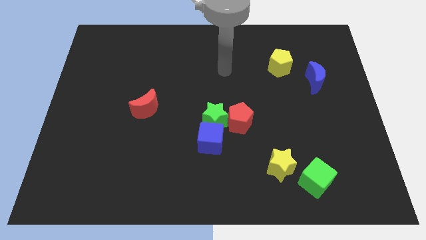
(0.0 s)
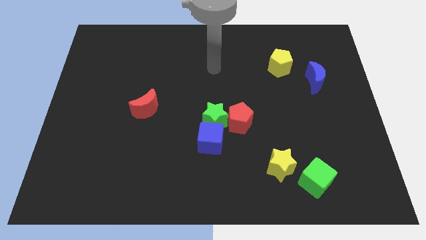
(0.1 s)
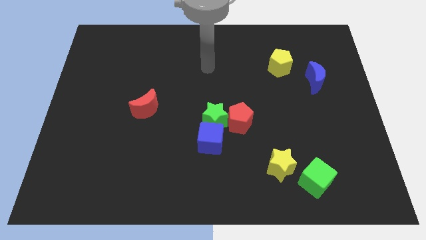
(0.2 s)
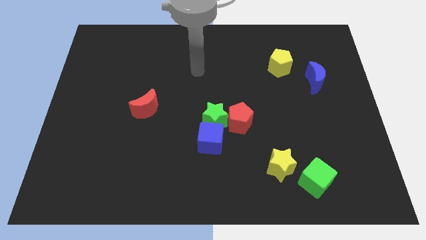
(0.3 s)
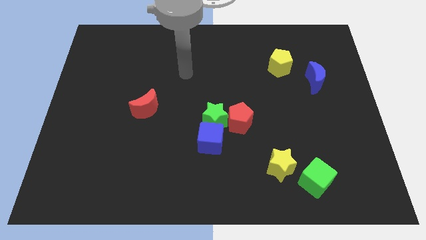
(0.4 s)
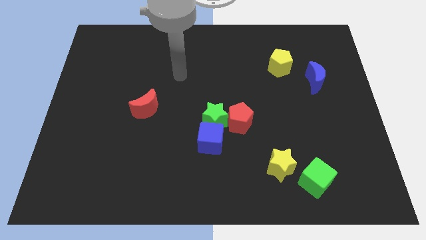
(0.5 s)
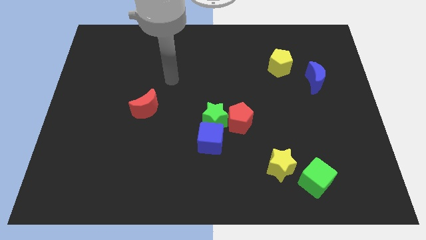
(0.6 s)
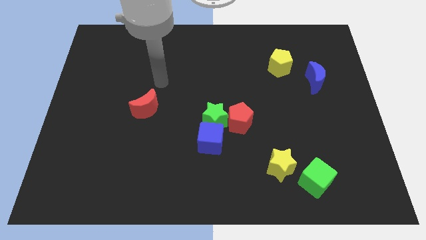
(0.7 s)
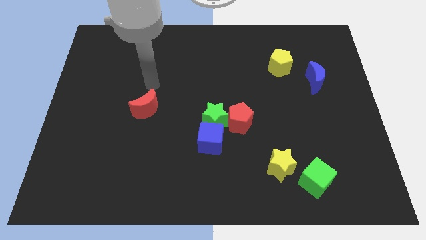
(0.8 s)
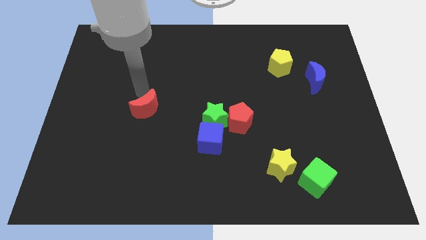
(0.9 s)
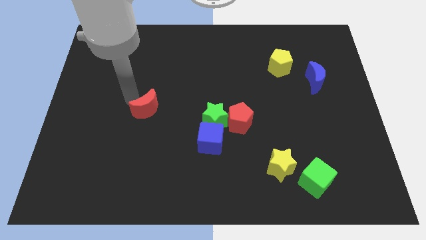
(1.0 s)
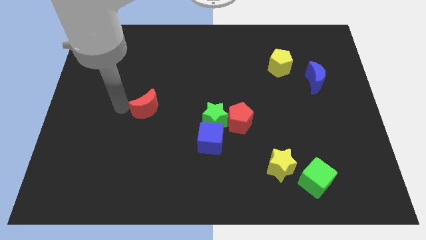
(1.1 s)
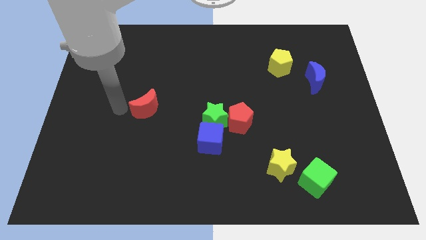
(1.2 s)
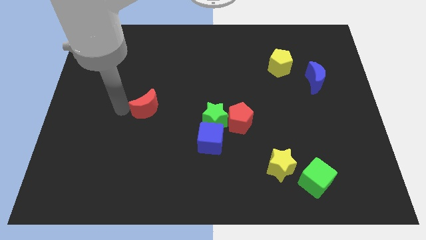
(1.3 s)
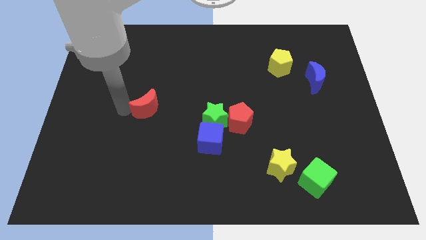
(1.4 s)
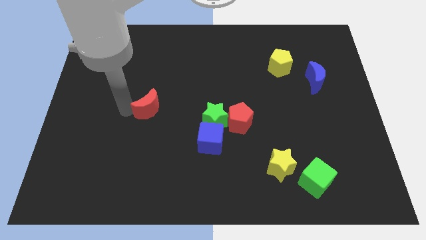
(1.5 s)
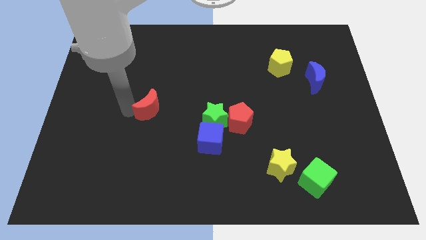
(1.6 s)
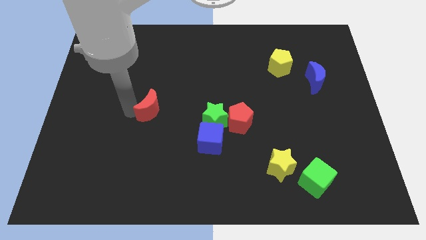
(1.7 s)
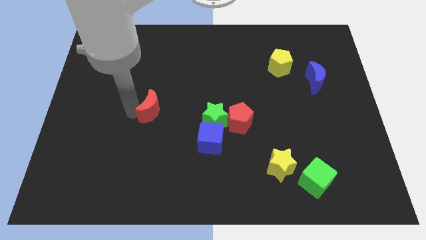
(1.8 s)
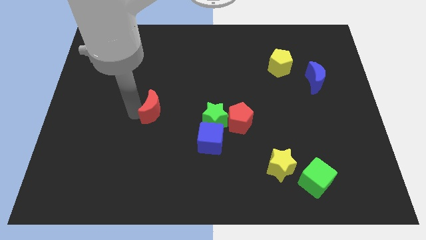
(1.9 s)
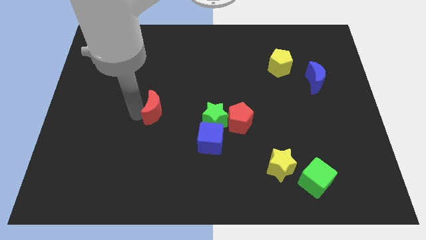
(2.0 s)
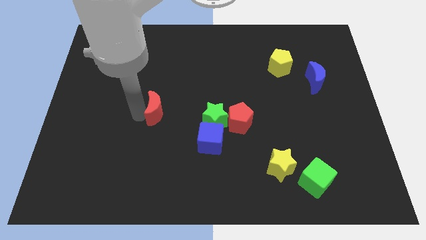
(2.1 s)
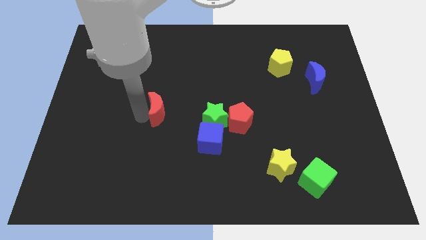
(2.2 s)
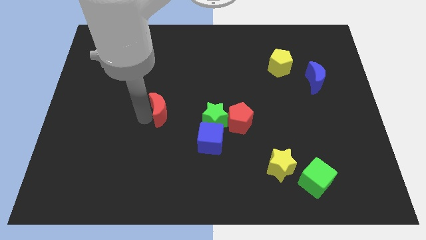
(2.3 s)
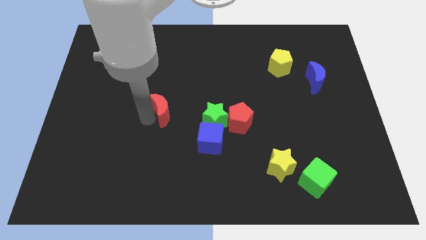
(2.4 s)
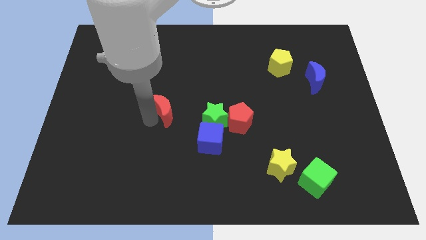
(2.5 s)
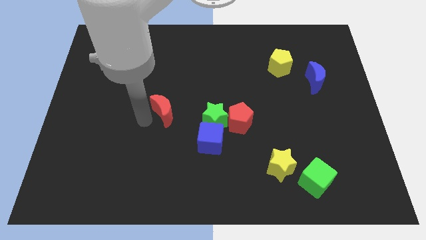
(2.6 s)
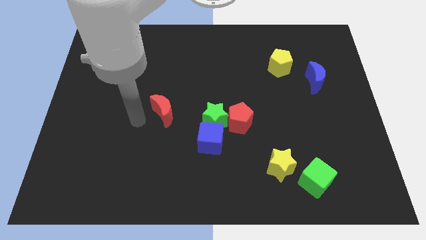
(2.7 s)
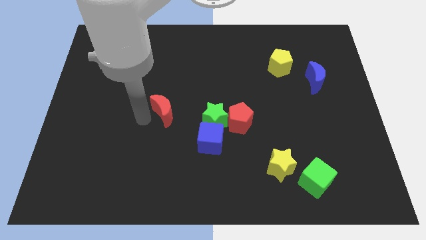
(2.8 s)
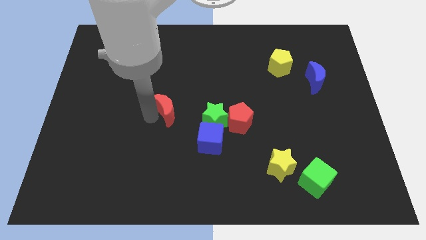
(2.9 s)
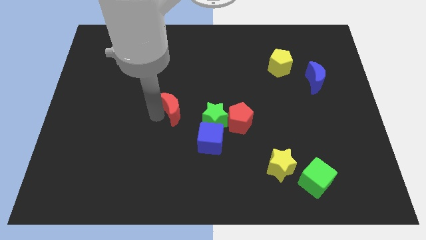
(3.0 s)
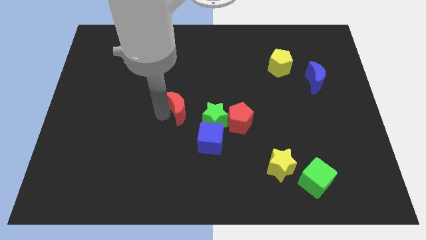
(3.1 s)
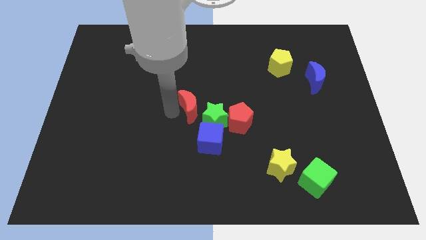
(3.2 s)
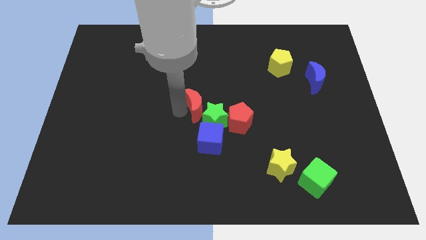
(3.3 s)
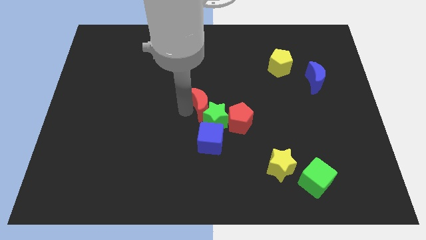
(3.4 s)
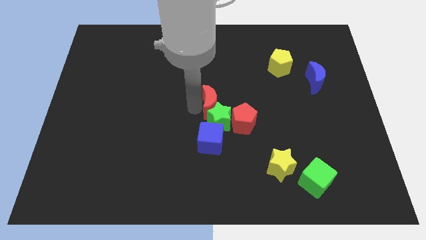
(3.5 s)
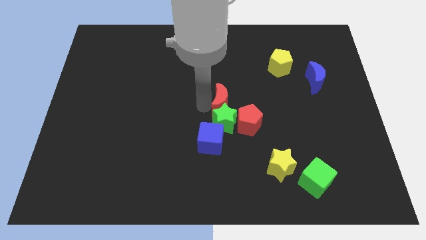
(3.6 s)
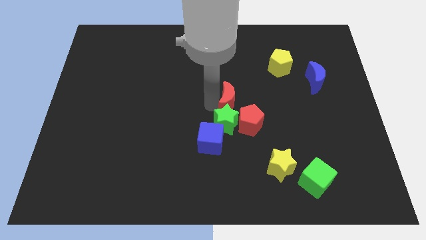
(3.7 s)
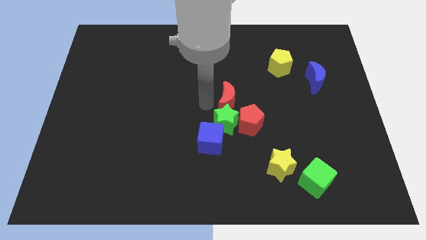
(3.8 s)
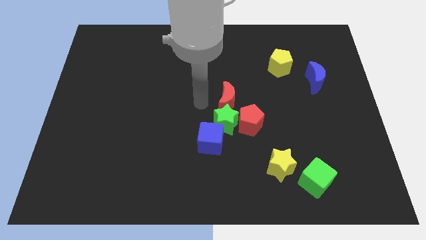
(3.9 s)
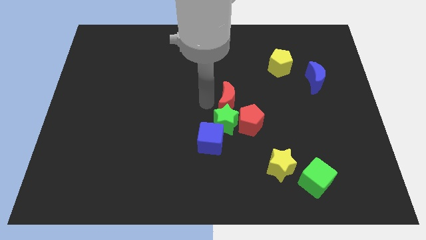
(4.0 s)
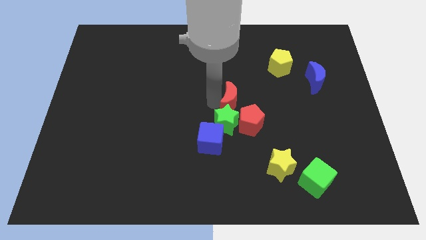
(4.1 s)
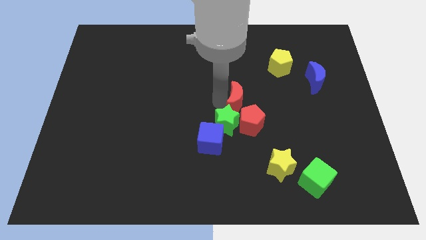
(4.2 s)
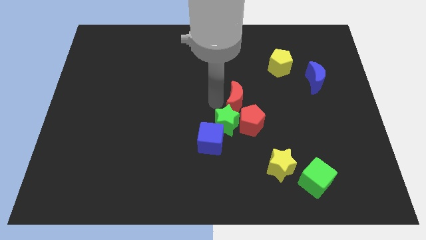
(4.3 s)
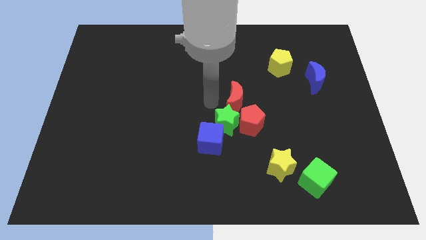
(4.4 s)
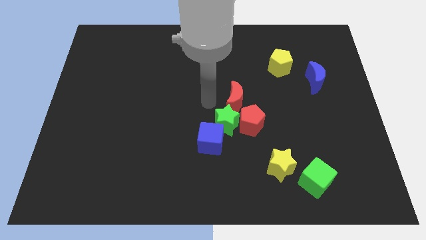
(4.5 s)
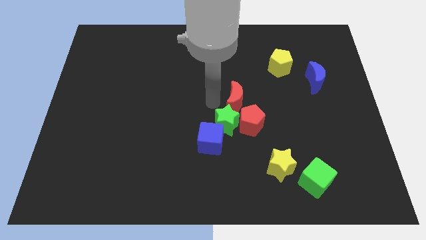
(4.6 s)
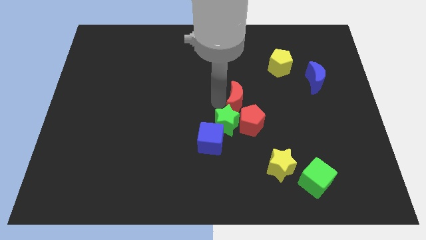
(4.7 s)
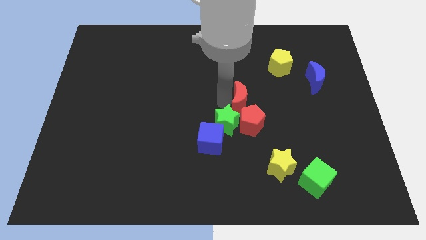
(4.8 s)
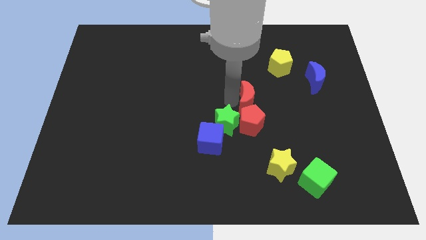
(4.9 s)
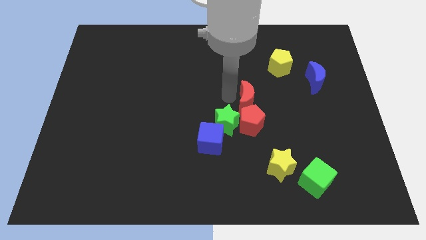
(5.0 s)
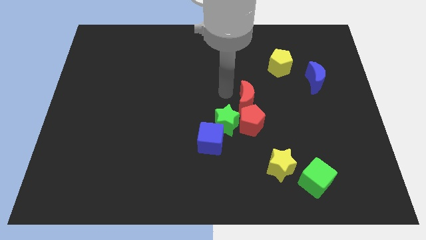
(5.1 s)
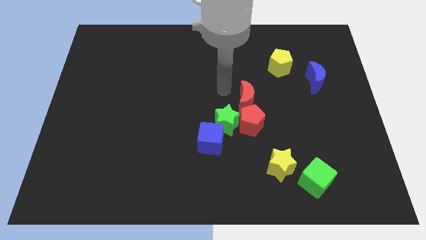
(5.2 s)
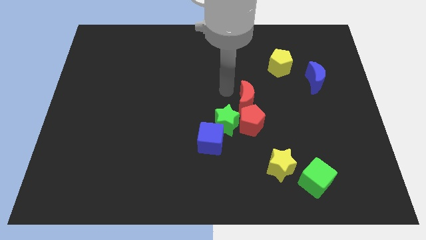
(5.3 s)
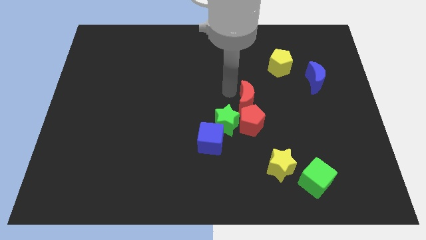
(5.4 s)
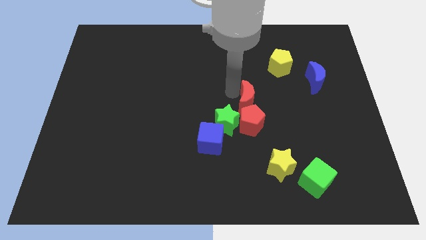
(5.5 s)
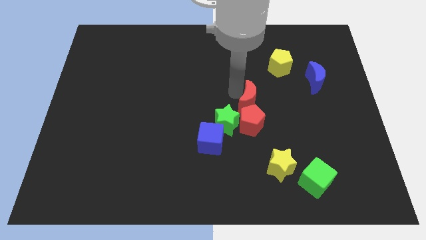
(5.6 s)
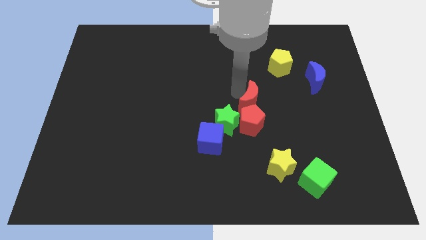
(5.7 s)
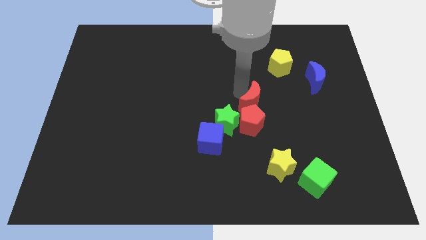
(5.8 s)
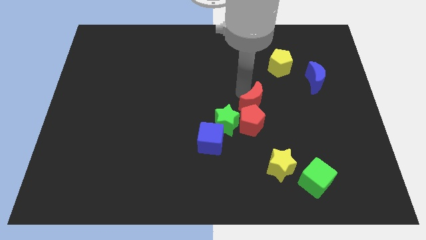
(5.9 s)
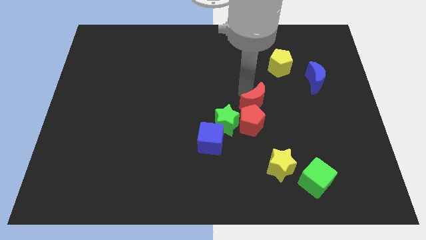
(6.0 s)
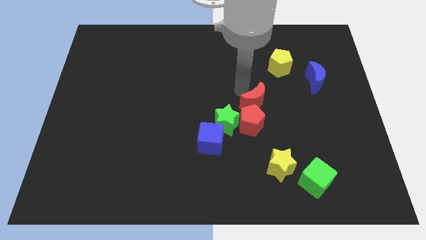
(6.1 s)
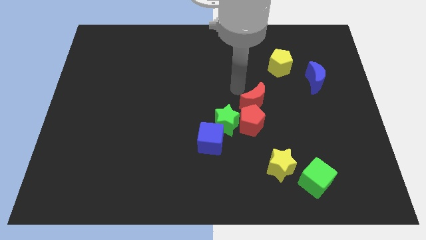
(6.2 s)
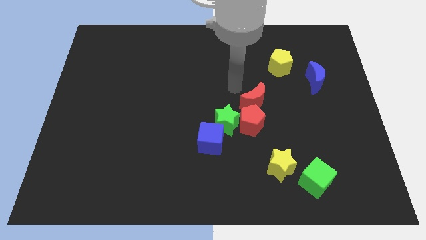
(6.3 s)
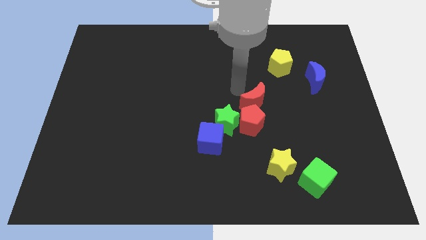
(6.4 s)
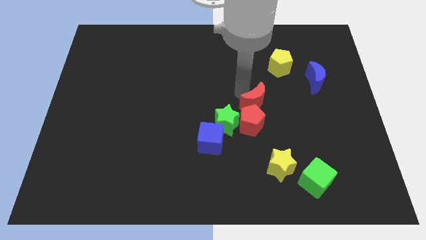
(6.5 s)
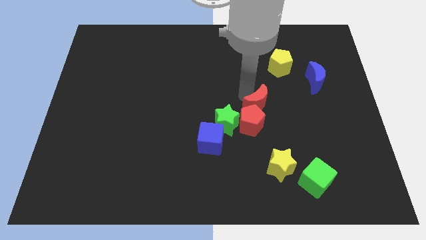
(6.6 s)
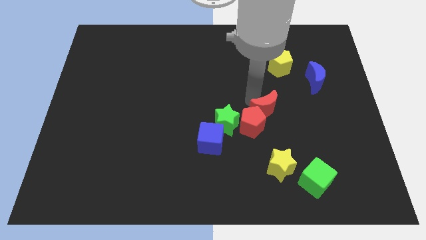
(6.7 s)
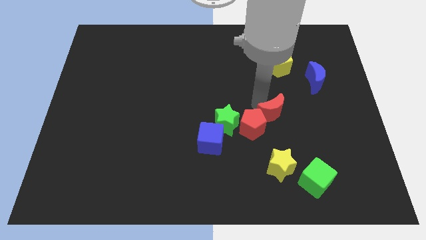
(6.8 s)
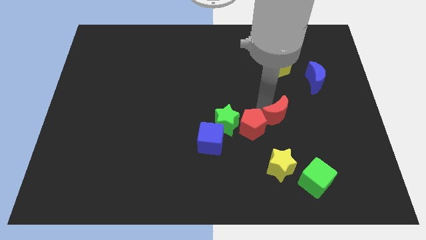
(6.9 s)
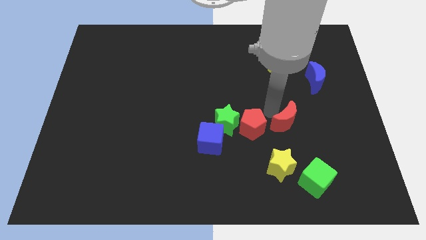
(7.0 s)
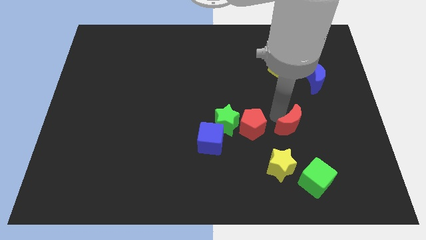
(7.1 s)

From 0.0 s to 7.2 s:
move the red moon to the top of the green cube
